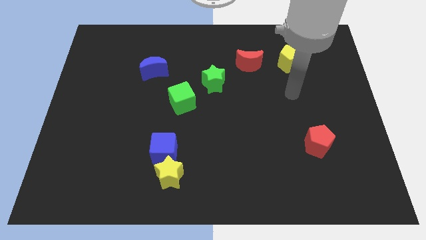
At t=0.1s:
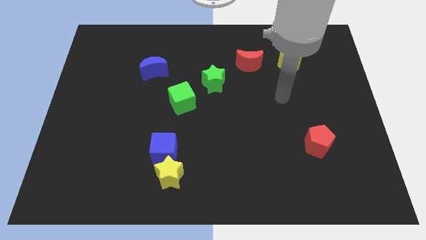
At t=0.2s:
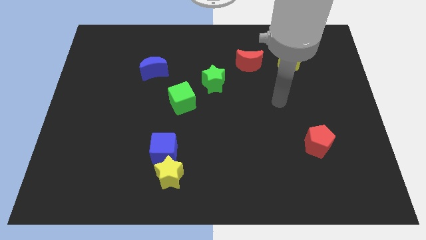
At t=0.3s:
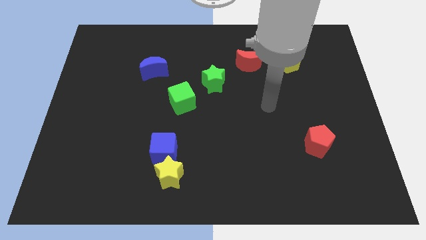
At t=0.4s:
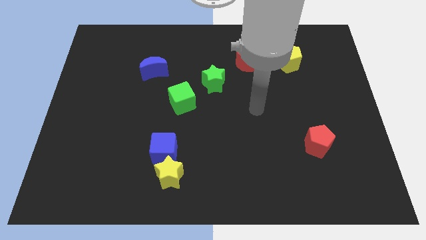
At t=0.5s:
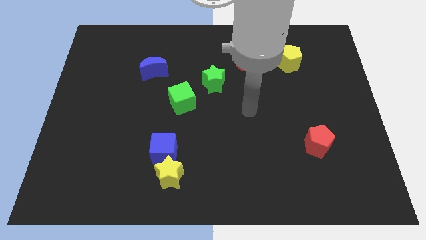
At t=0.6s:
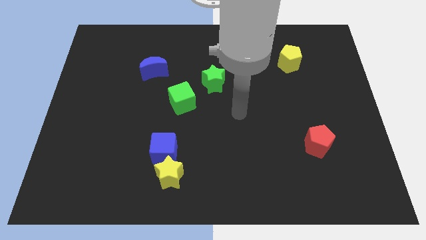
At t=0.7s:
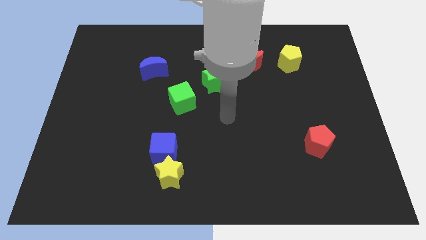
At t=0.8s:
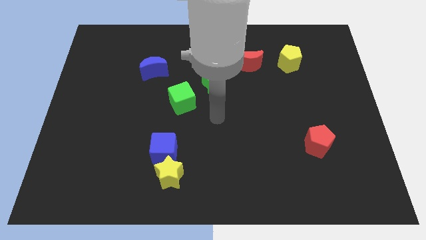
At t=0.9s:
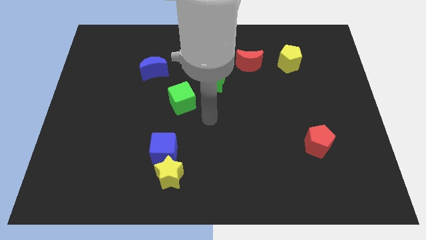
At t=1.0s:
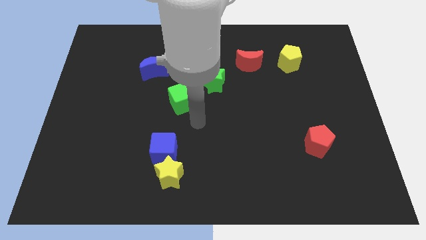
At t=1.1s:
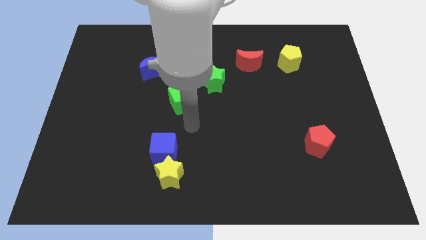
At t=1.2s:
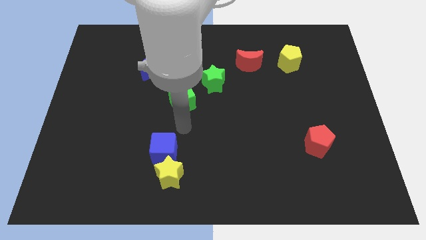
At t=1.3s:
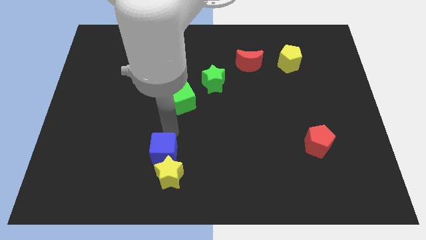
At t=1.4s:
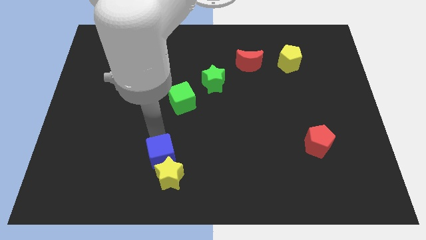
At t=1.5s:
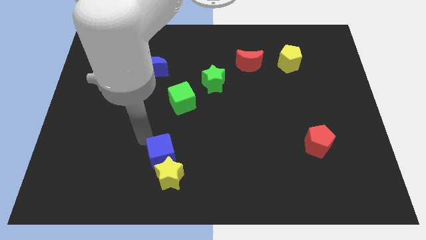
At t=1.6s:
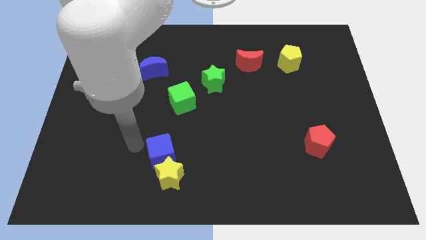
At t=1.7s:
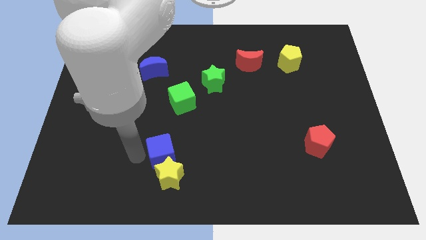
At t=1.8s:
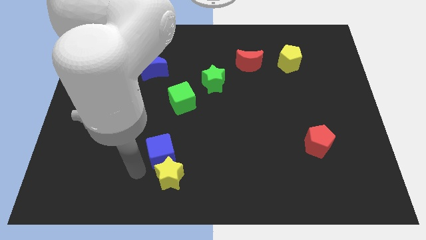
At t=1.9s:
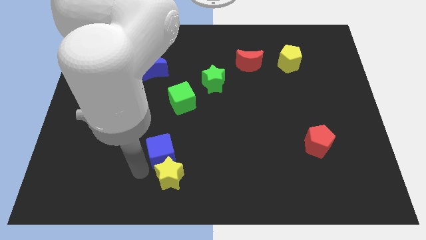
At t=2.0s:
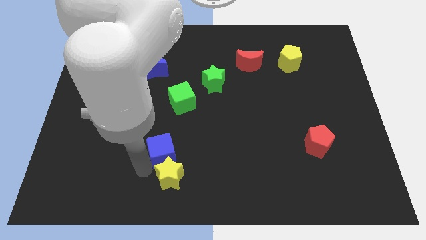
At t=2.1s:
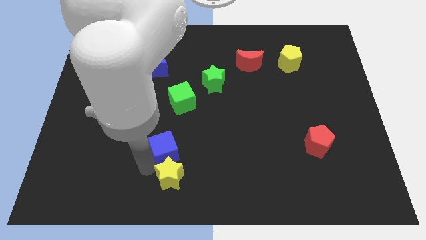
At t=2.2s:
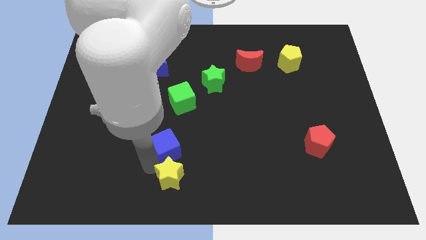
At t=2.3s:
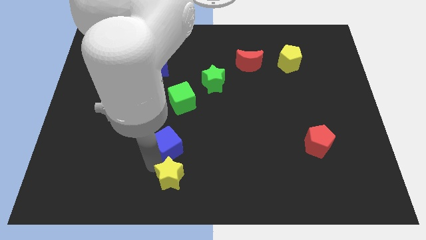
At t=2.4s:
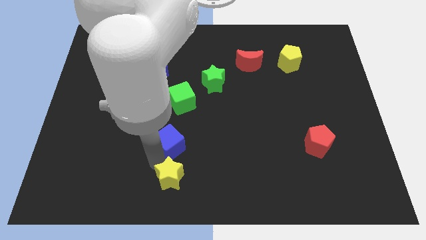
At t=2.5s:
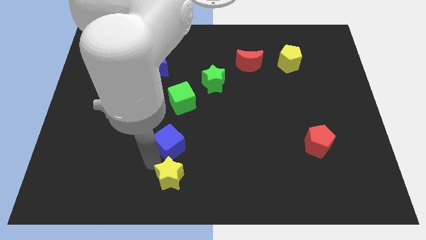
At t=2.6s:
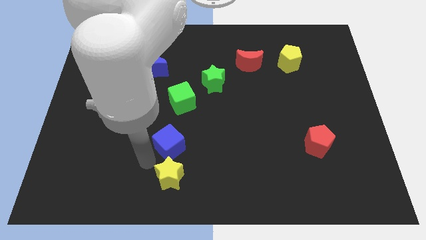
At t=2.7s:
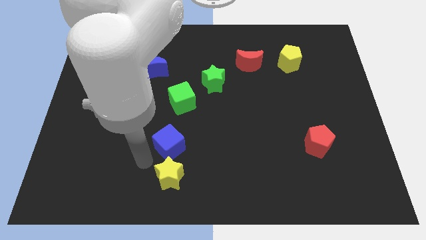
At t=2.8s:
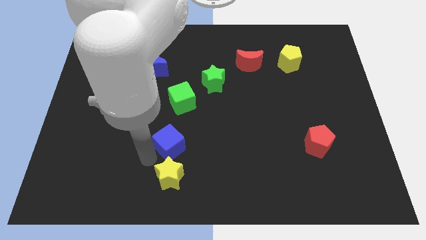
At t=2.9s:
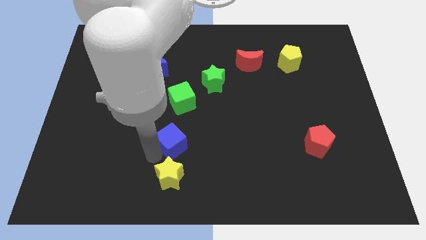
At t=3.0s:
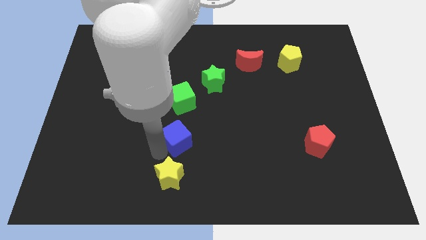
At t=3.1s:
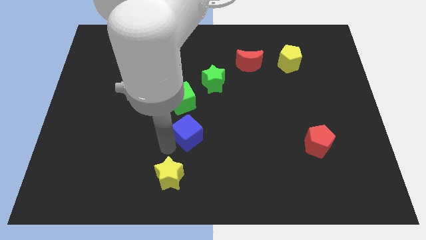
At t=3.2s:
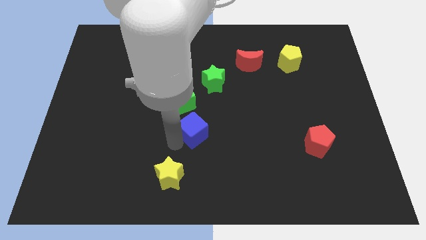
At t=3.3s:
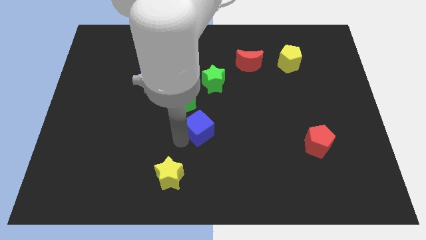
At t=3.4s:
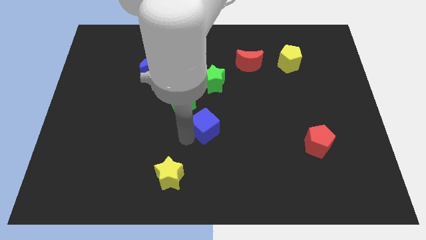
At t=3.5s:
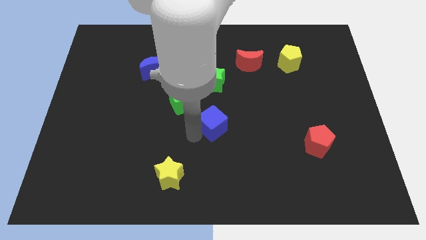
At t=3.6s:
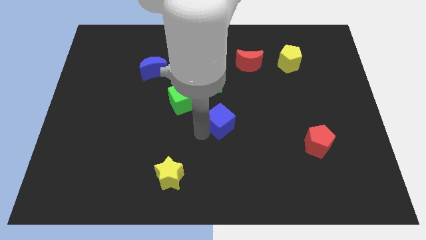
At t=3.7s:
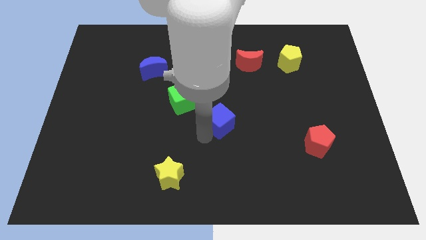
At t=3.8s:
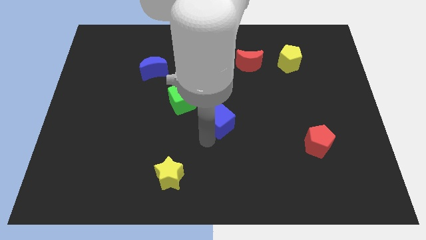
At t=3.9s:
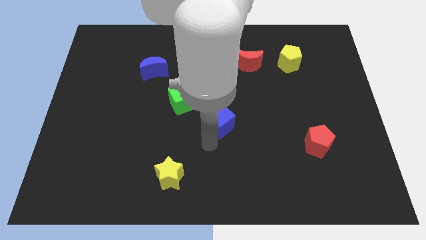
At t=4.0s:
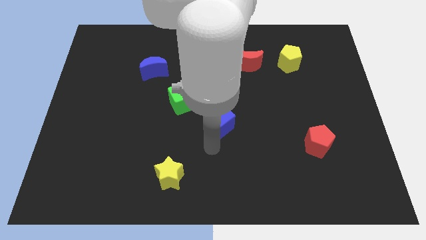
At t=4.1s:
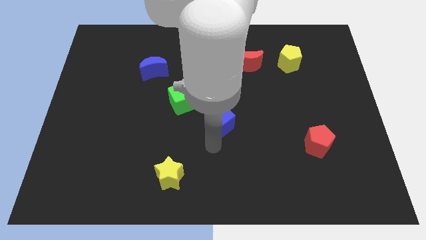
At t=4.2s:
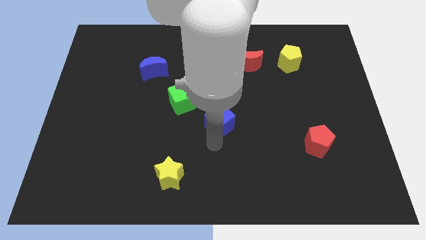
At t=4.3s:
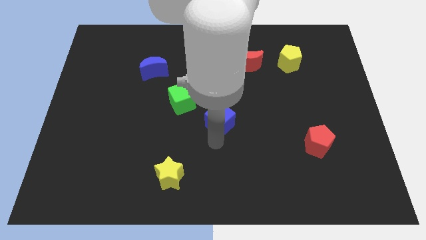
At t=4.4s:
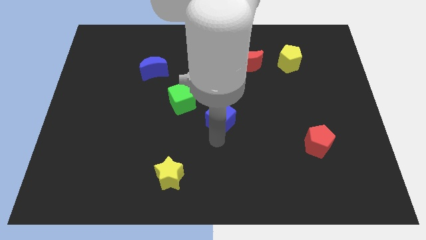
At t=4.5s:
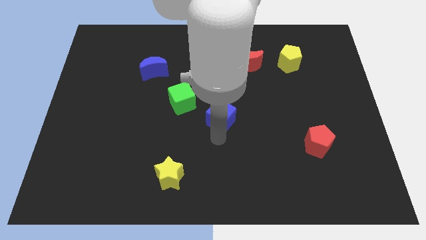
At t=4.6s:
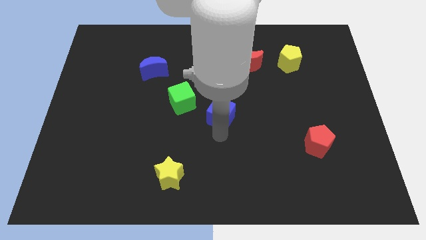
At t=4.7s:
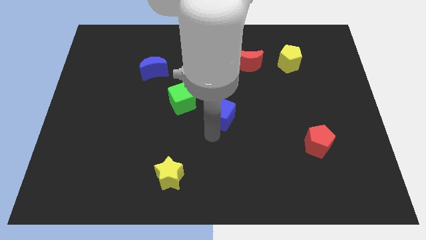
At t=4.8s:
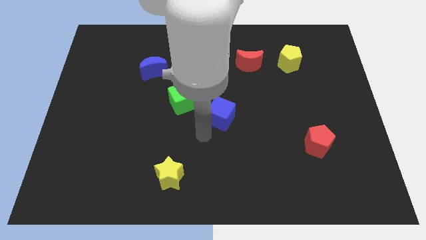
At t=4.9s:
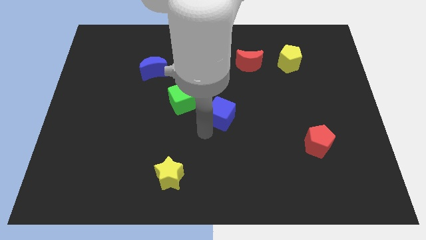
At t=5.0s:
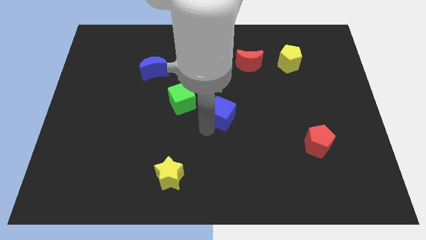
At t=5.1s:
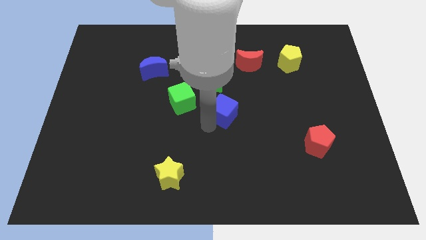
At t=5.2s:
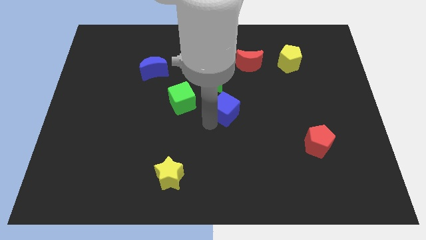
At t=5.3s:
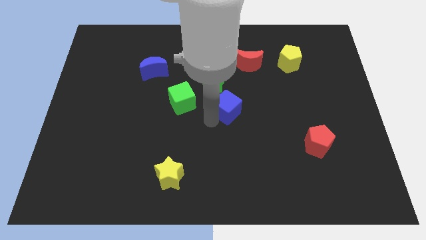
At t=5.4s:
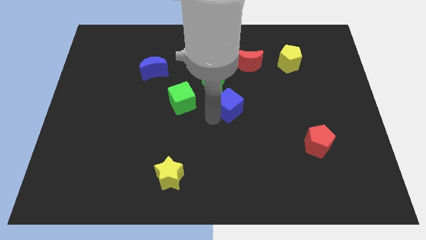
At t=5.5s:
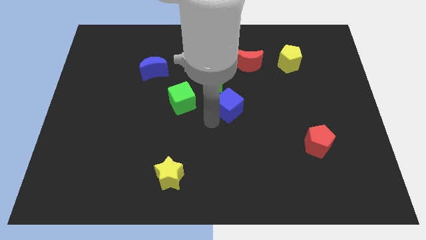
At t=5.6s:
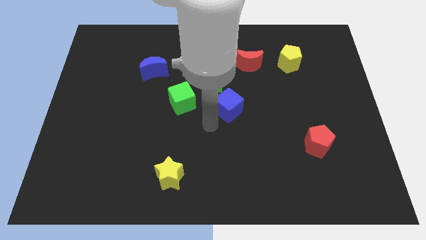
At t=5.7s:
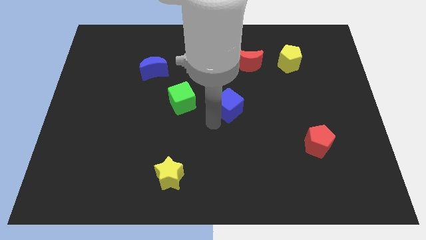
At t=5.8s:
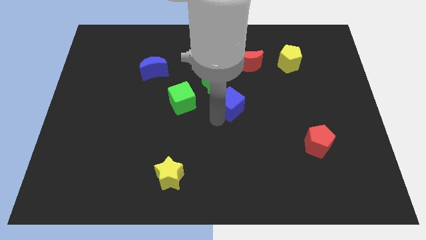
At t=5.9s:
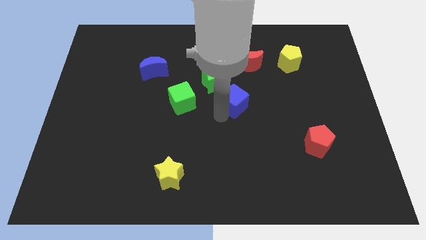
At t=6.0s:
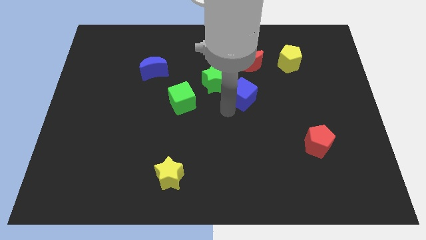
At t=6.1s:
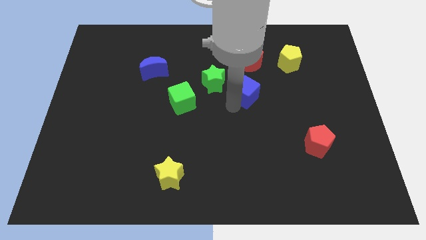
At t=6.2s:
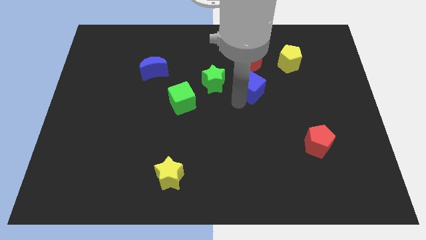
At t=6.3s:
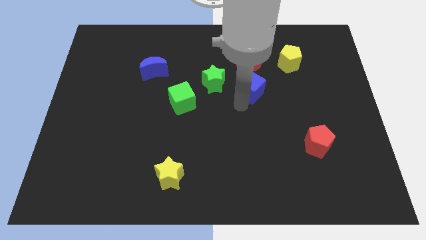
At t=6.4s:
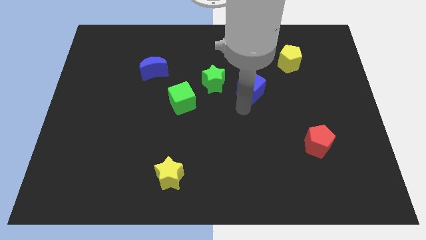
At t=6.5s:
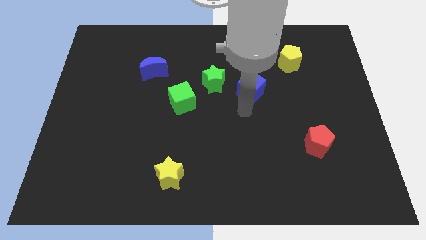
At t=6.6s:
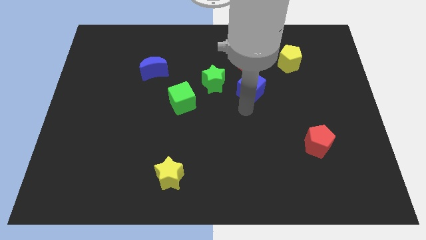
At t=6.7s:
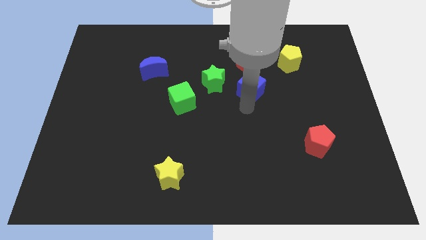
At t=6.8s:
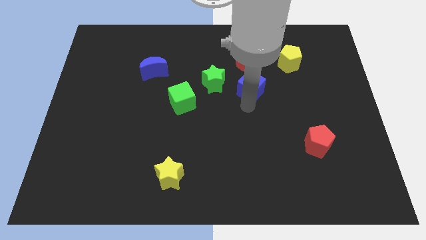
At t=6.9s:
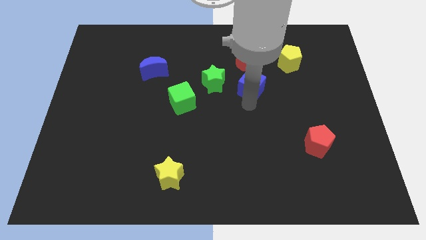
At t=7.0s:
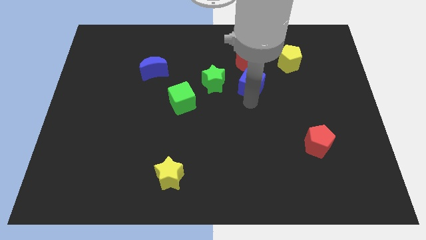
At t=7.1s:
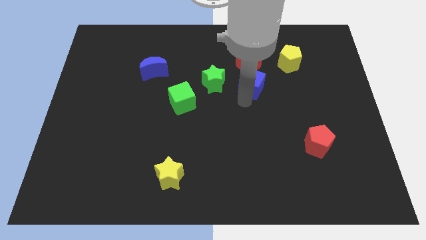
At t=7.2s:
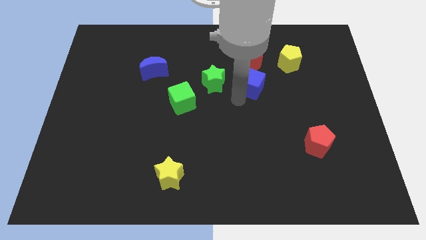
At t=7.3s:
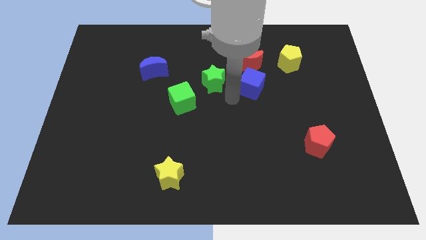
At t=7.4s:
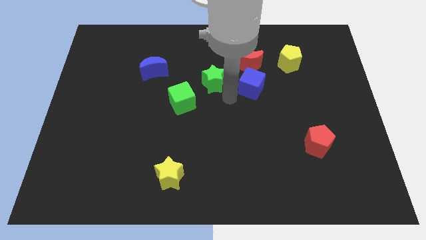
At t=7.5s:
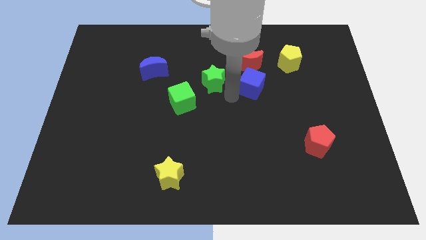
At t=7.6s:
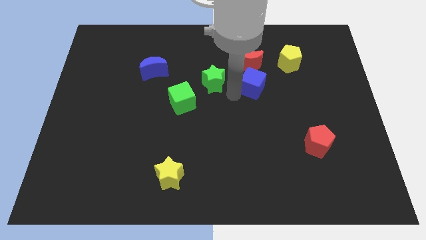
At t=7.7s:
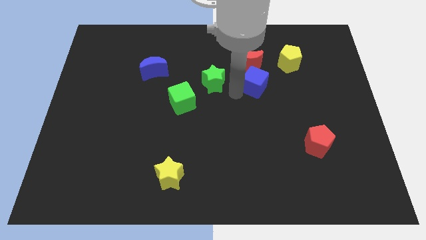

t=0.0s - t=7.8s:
put the blue cube to the bottom left of the yellow pentagon
